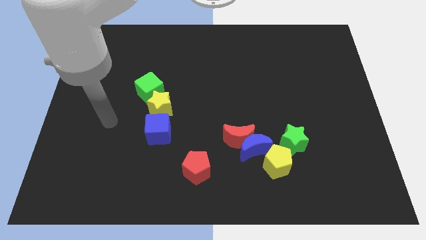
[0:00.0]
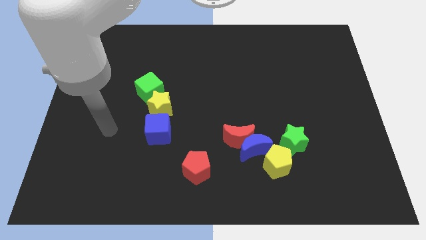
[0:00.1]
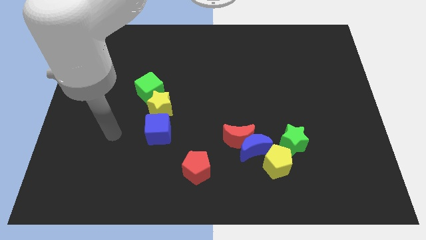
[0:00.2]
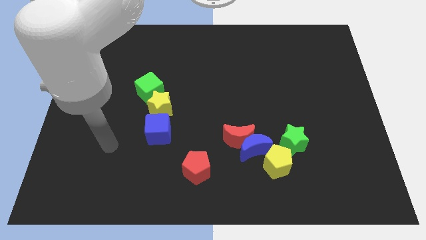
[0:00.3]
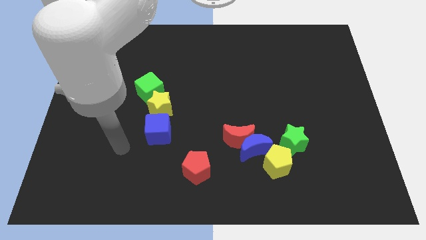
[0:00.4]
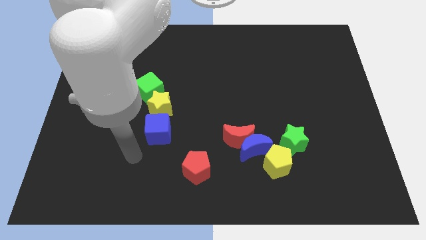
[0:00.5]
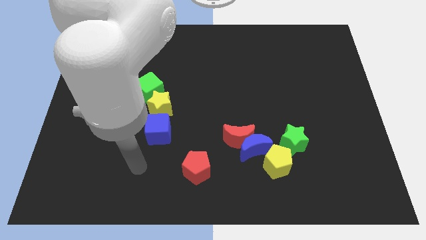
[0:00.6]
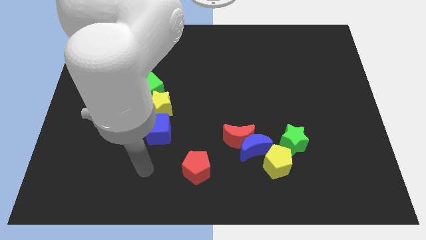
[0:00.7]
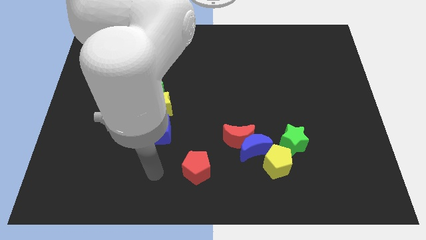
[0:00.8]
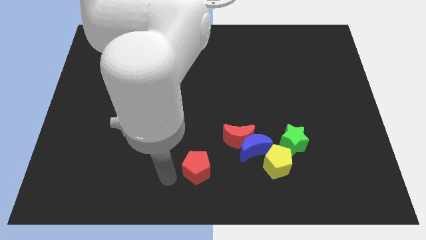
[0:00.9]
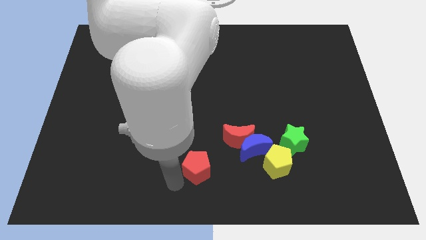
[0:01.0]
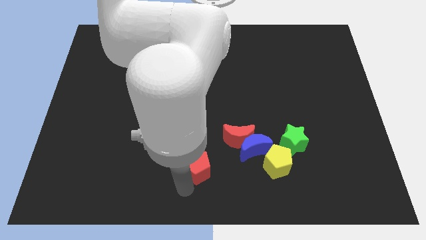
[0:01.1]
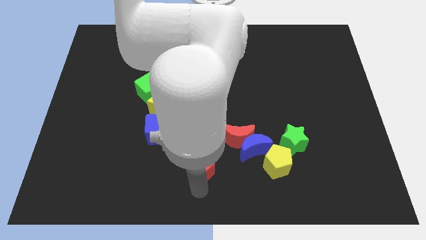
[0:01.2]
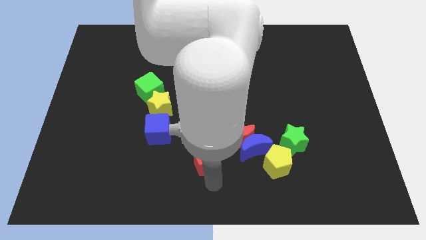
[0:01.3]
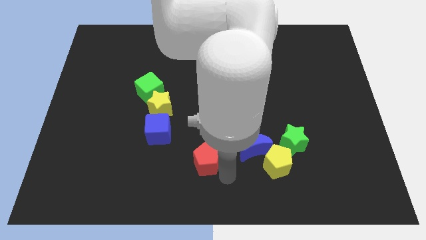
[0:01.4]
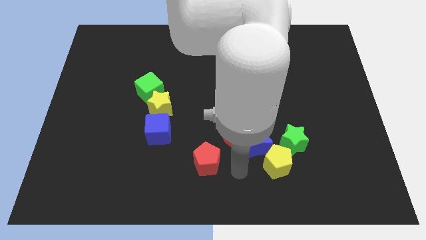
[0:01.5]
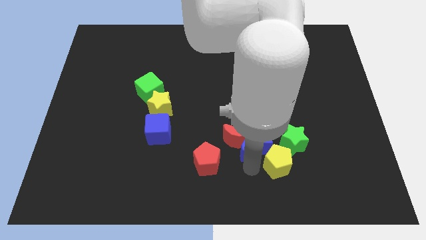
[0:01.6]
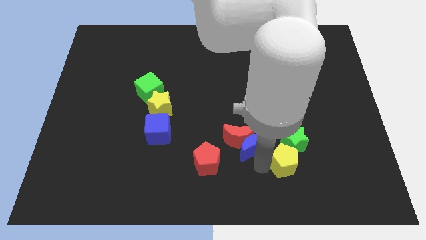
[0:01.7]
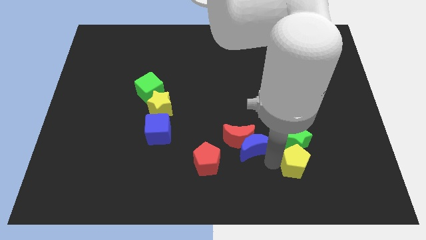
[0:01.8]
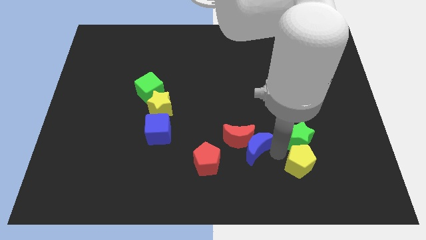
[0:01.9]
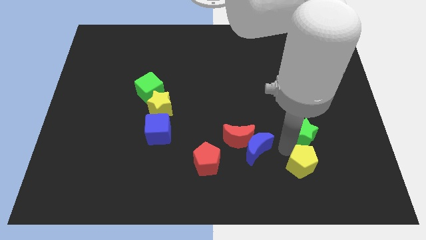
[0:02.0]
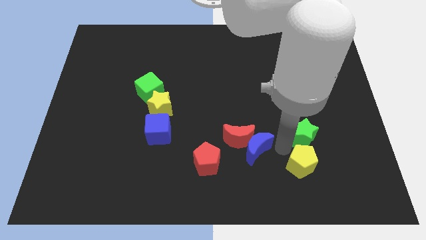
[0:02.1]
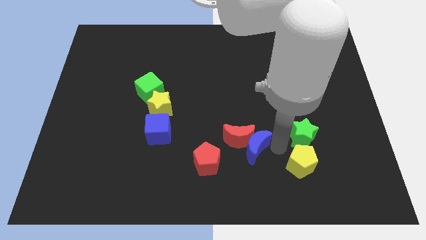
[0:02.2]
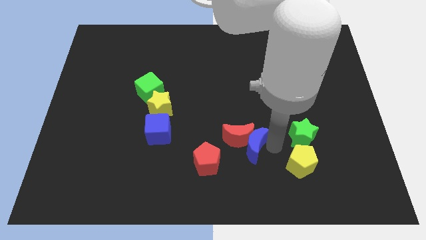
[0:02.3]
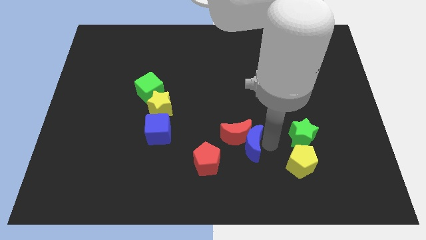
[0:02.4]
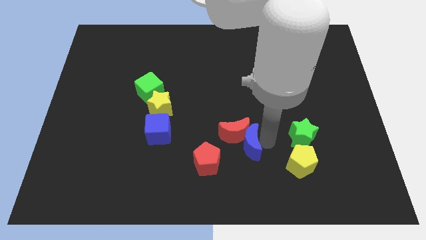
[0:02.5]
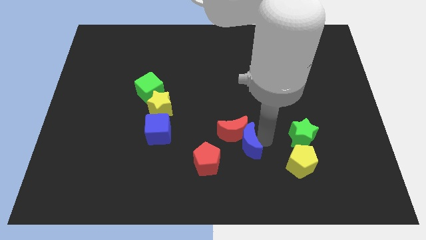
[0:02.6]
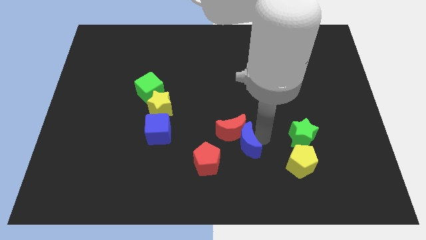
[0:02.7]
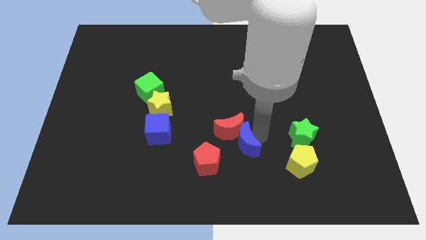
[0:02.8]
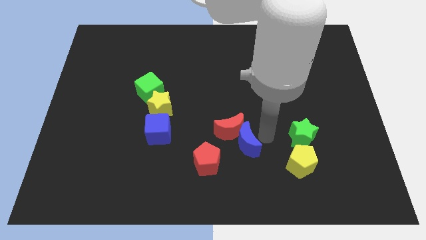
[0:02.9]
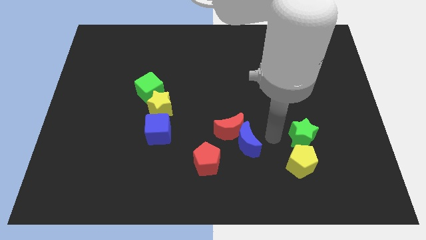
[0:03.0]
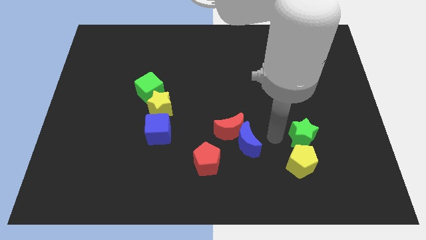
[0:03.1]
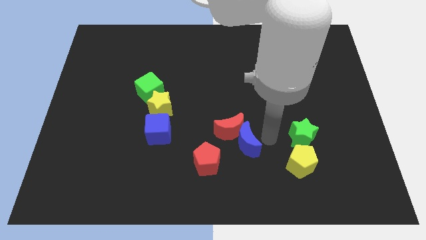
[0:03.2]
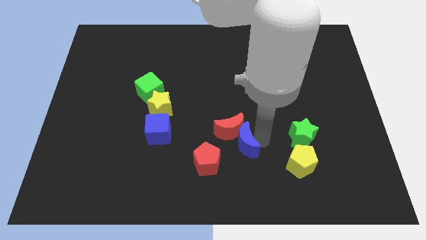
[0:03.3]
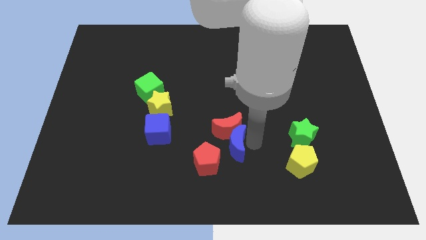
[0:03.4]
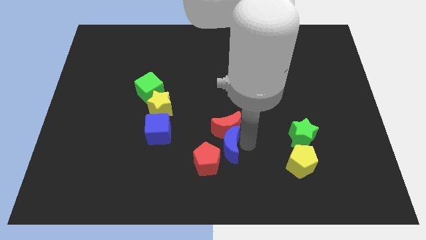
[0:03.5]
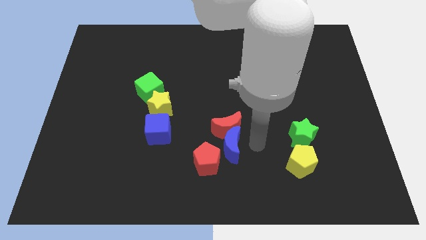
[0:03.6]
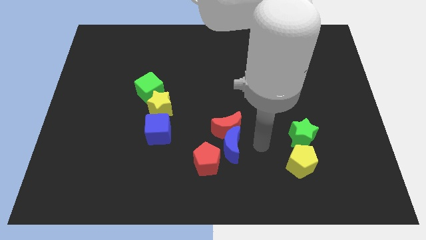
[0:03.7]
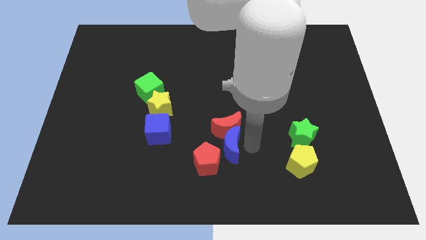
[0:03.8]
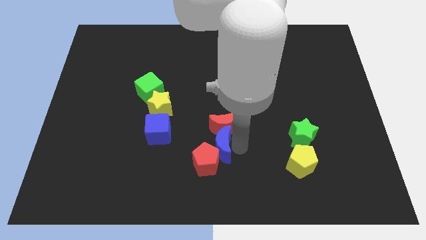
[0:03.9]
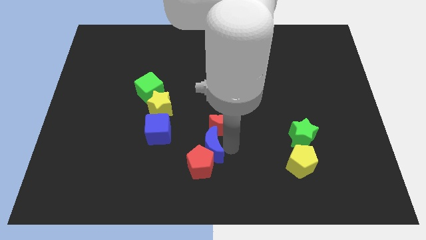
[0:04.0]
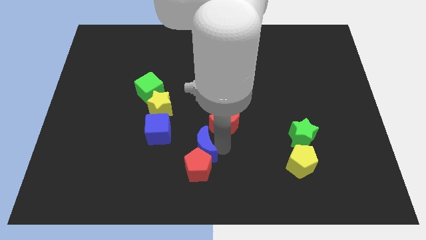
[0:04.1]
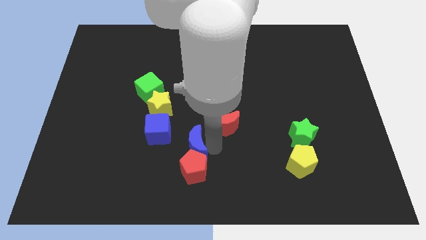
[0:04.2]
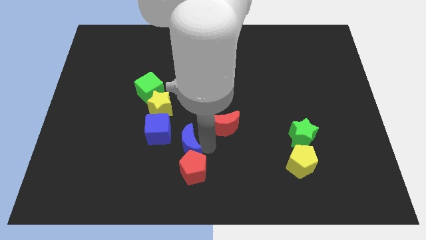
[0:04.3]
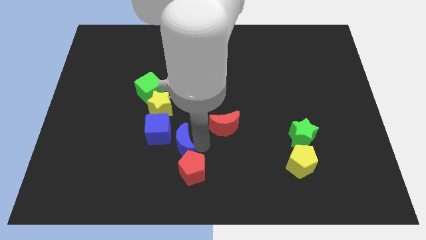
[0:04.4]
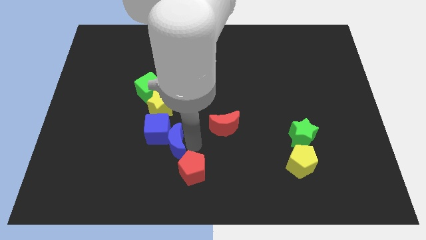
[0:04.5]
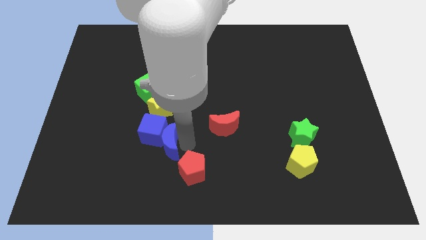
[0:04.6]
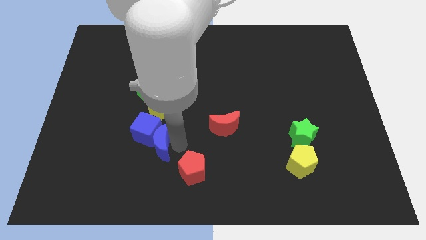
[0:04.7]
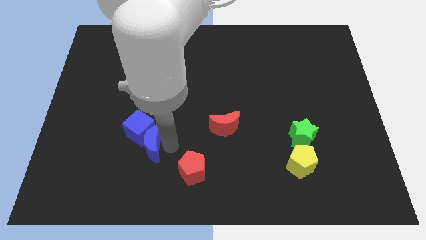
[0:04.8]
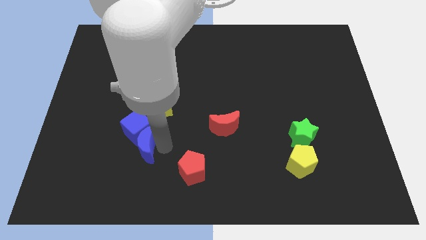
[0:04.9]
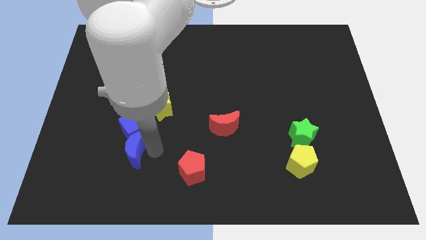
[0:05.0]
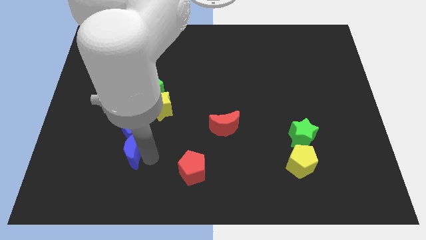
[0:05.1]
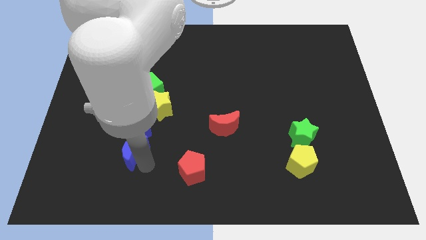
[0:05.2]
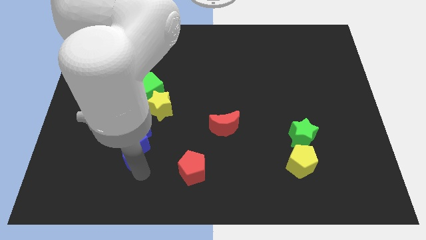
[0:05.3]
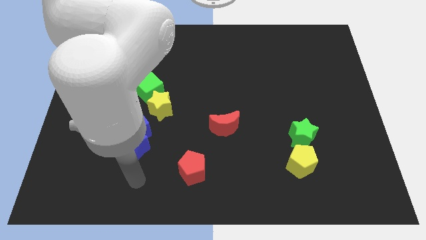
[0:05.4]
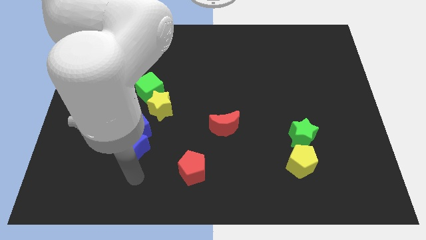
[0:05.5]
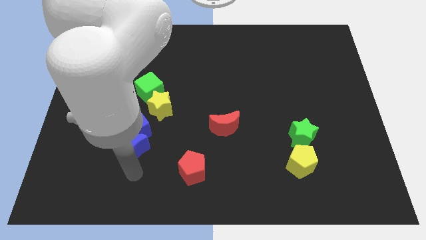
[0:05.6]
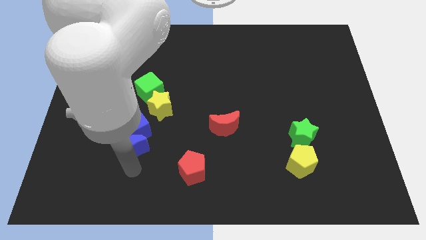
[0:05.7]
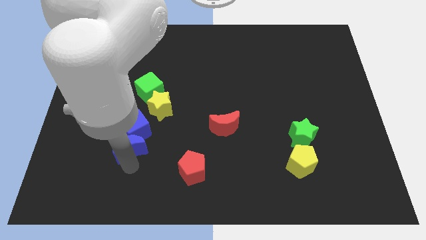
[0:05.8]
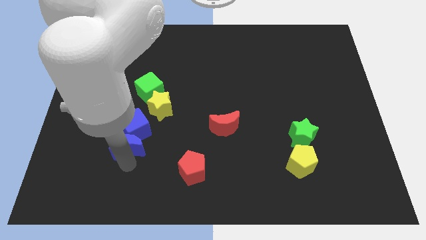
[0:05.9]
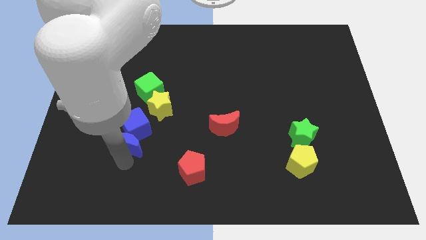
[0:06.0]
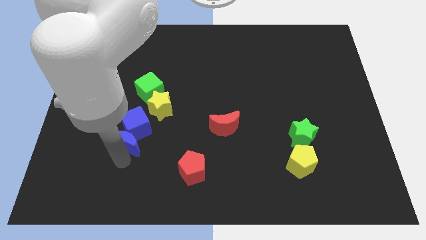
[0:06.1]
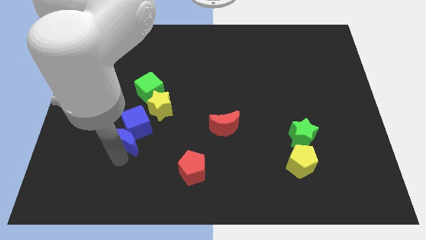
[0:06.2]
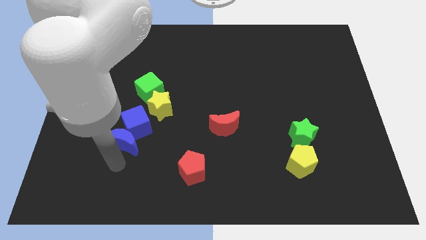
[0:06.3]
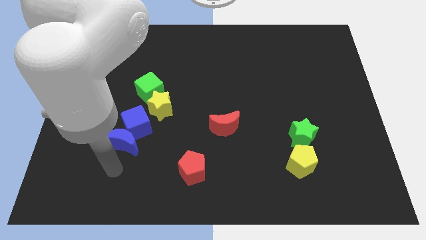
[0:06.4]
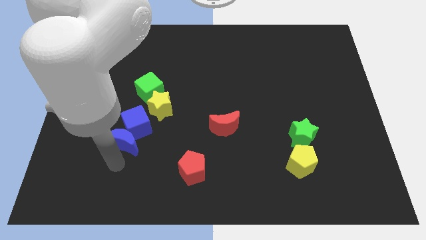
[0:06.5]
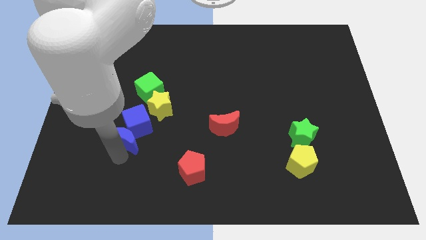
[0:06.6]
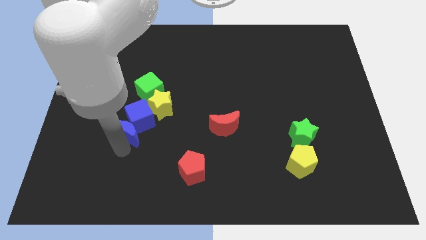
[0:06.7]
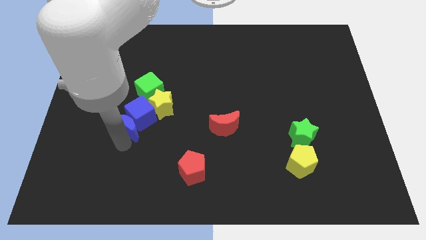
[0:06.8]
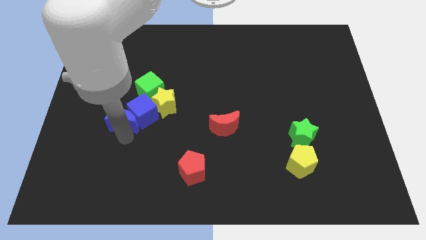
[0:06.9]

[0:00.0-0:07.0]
move the blue moon to the bottom left side of the green cube
